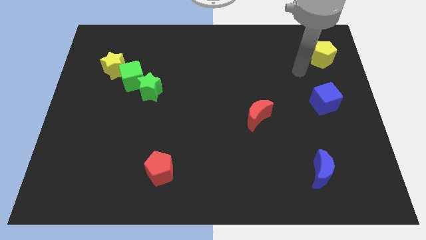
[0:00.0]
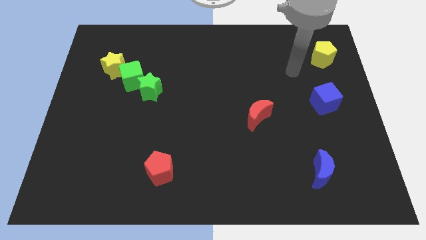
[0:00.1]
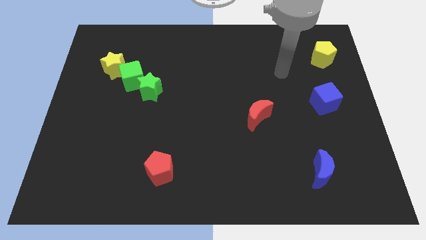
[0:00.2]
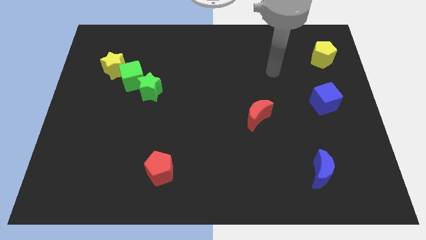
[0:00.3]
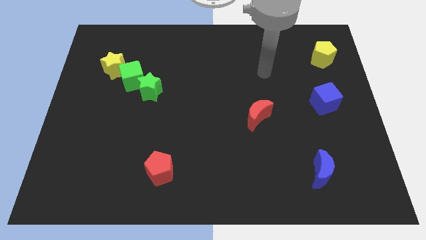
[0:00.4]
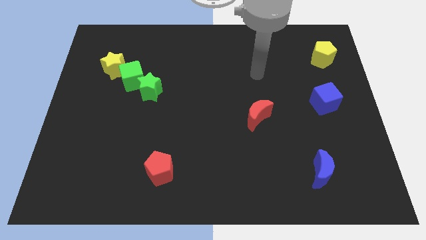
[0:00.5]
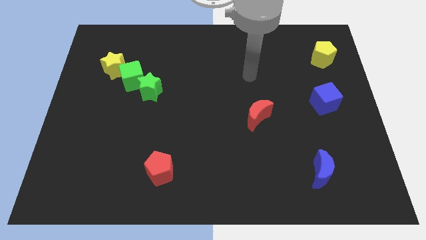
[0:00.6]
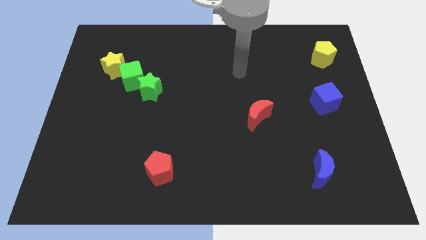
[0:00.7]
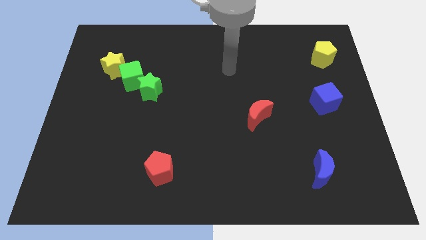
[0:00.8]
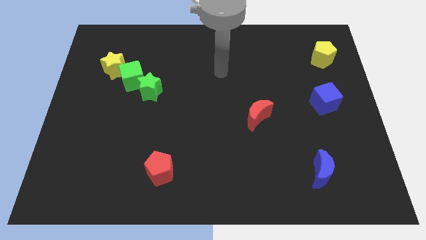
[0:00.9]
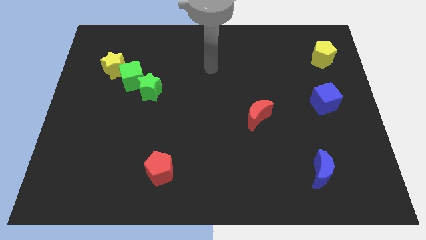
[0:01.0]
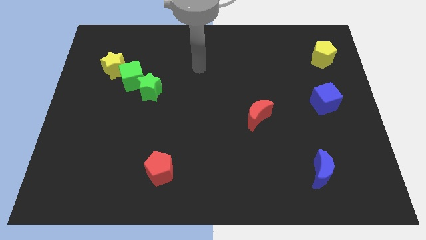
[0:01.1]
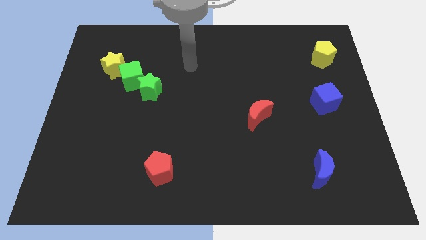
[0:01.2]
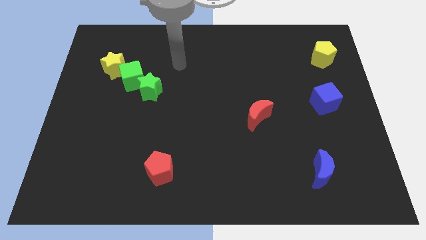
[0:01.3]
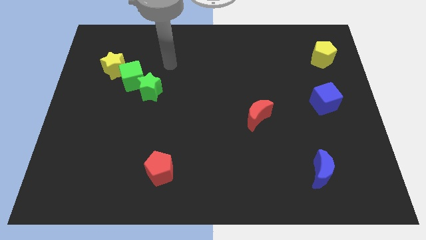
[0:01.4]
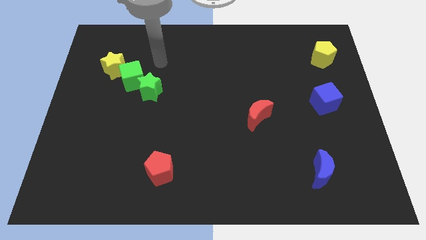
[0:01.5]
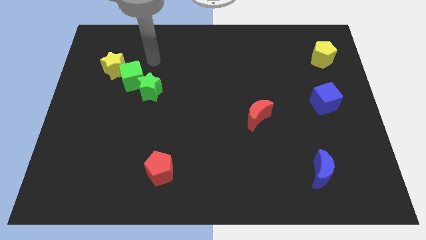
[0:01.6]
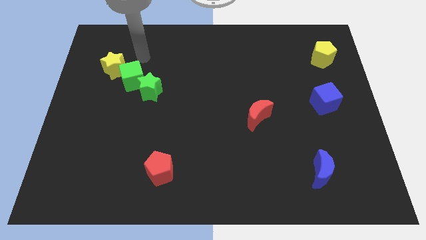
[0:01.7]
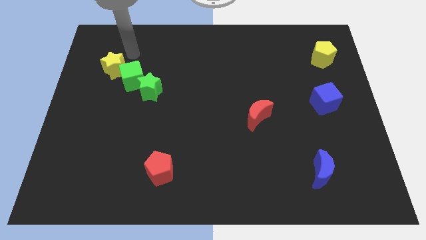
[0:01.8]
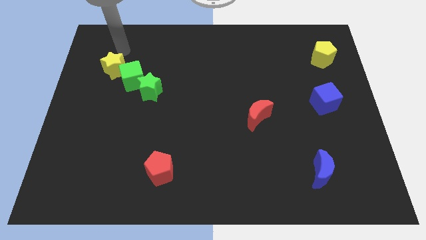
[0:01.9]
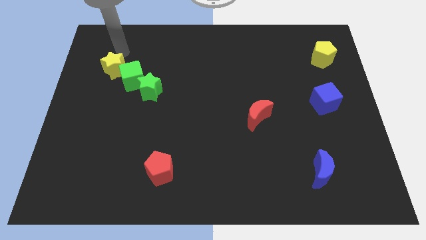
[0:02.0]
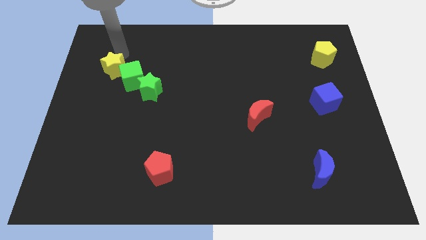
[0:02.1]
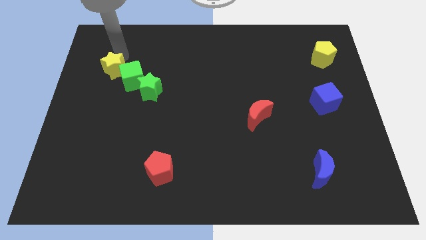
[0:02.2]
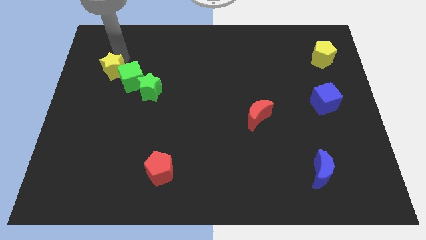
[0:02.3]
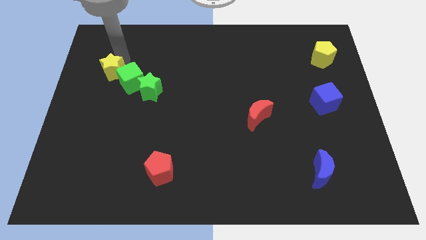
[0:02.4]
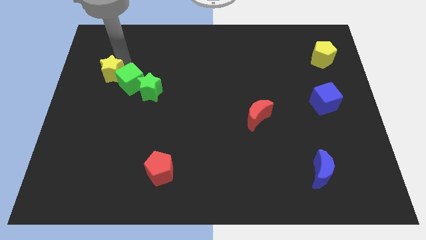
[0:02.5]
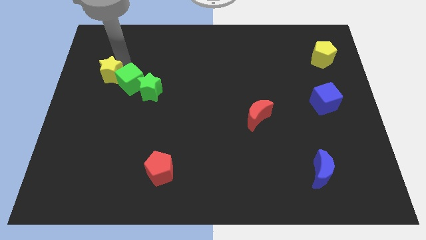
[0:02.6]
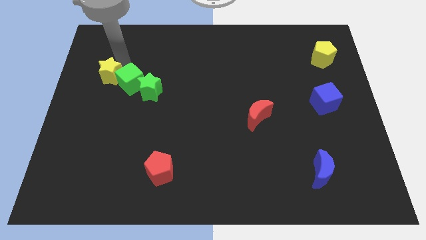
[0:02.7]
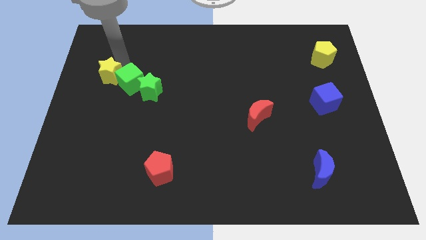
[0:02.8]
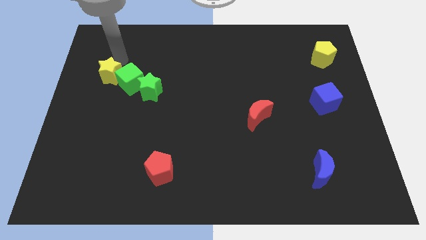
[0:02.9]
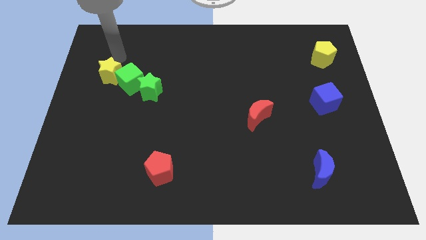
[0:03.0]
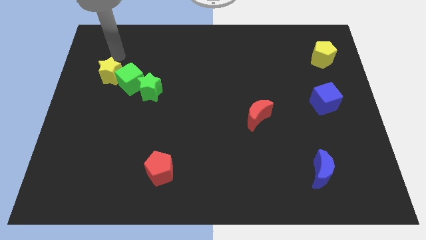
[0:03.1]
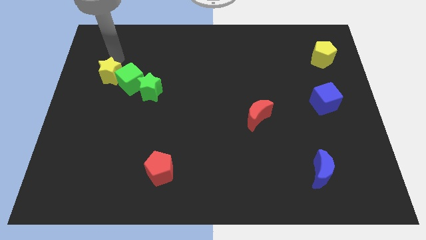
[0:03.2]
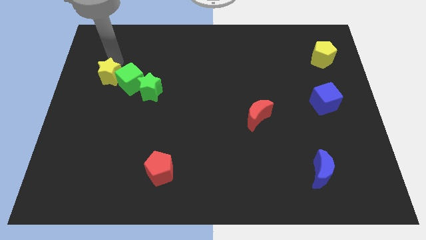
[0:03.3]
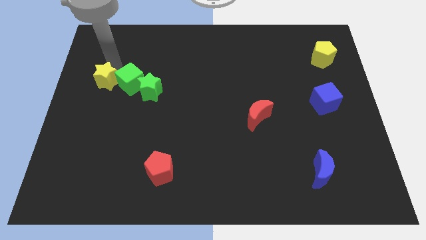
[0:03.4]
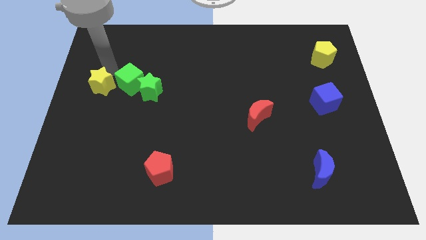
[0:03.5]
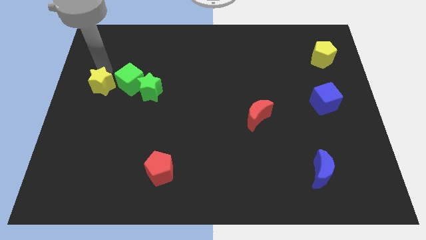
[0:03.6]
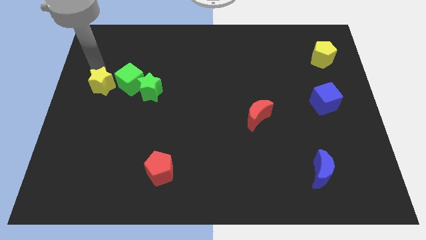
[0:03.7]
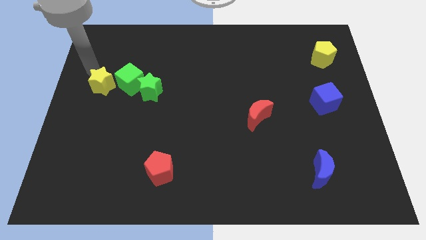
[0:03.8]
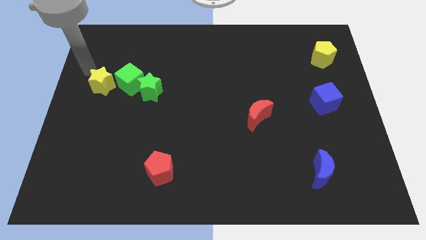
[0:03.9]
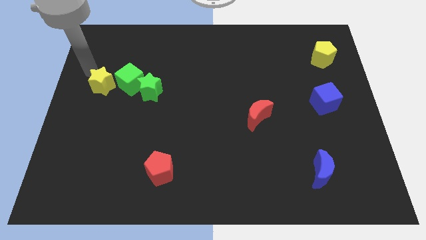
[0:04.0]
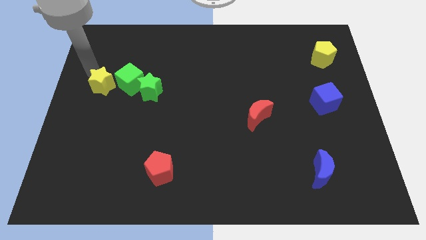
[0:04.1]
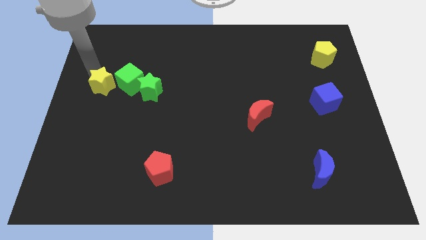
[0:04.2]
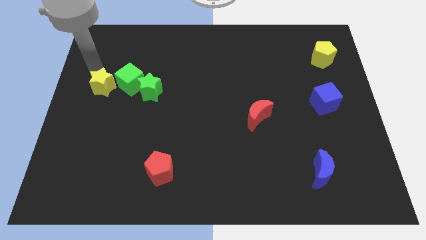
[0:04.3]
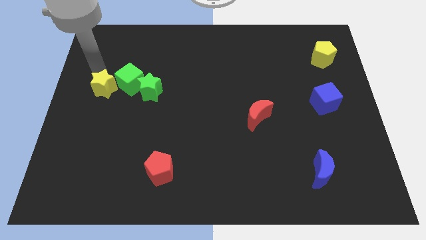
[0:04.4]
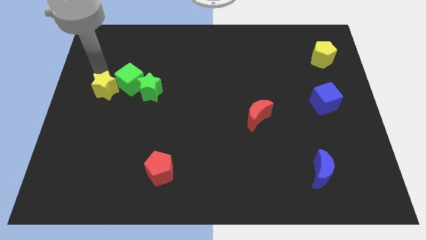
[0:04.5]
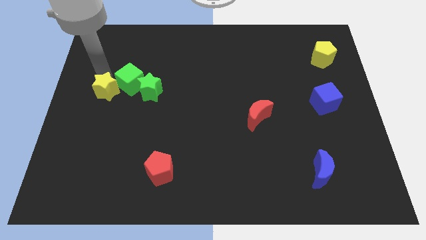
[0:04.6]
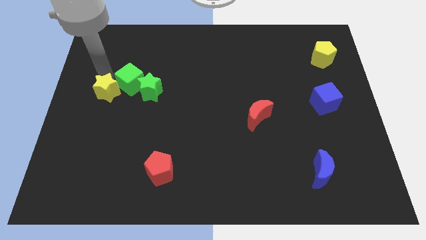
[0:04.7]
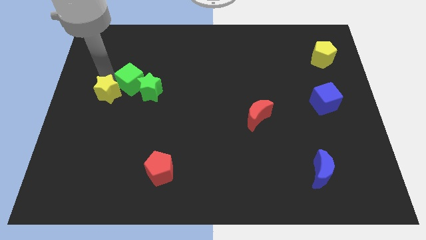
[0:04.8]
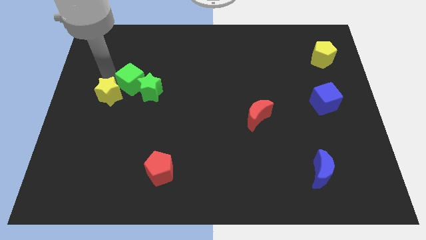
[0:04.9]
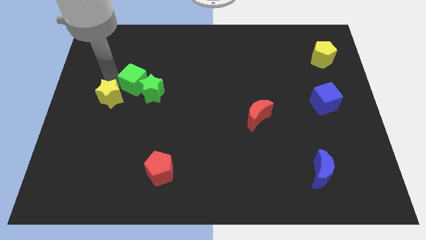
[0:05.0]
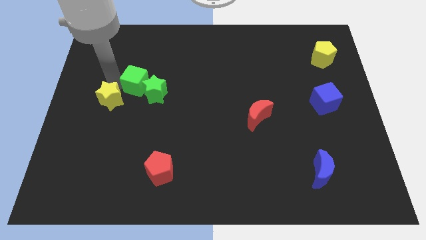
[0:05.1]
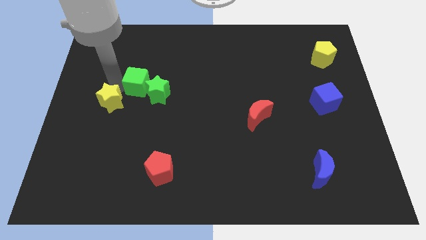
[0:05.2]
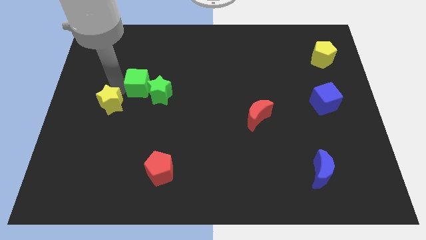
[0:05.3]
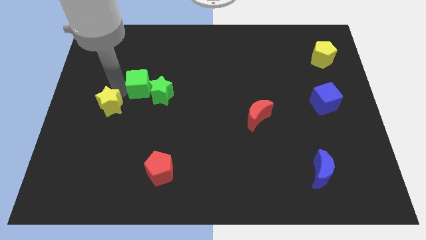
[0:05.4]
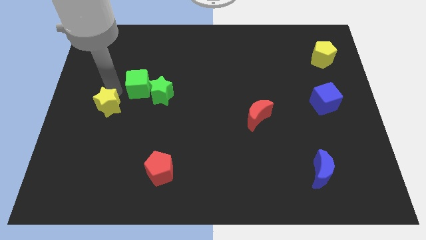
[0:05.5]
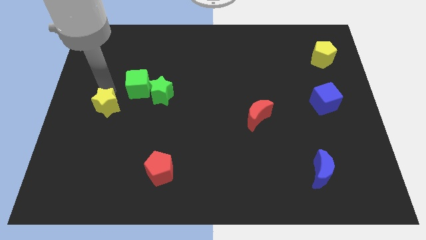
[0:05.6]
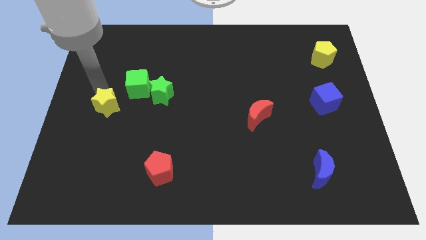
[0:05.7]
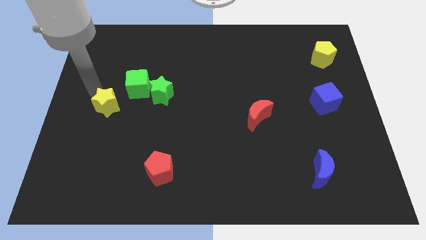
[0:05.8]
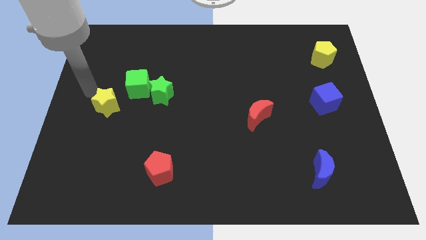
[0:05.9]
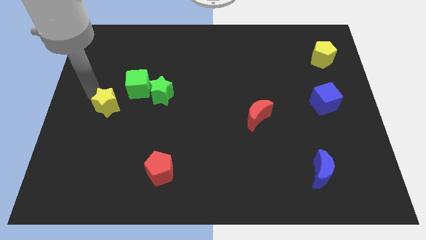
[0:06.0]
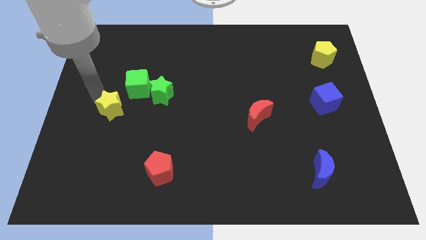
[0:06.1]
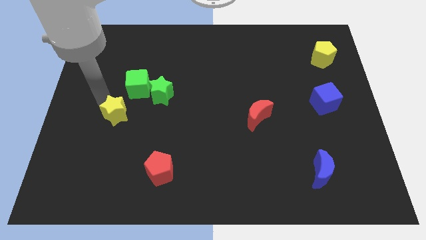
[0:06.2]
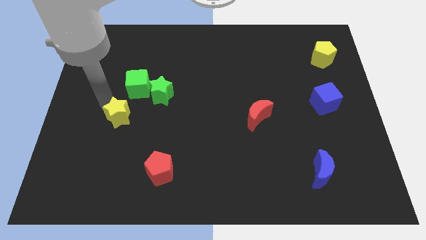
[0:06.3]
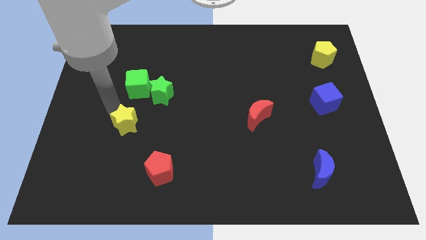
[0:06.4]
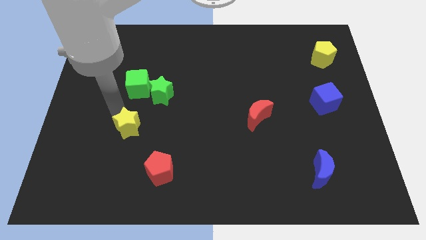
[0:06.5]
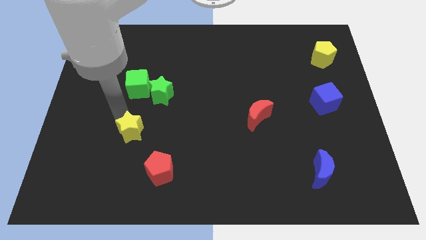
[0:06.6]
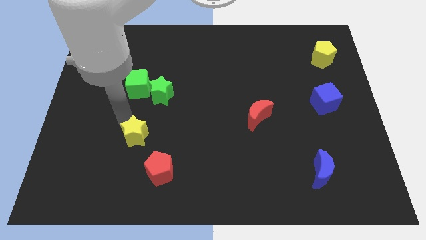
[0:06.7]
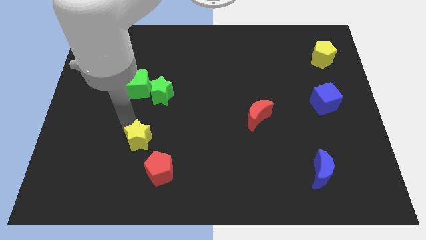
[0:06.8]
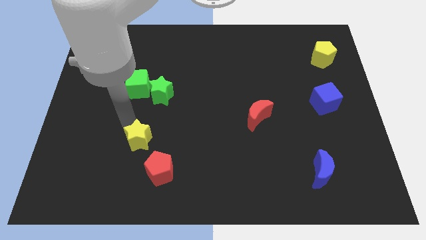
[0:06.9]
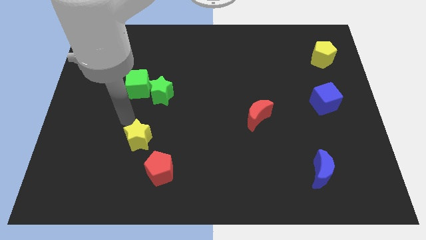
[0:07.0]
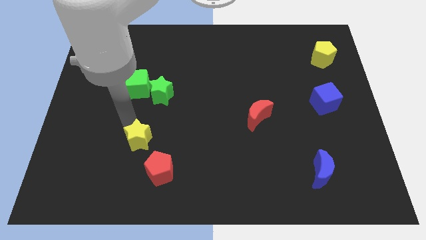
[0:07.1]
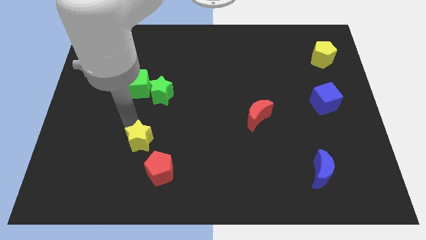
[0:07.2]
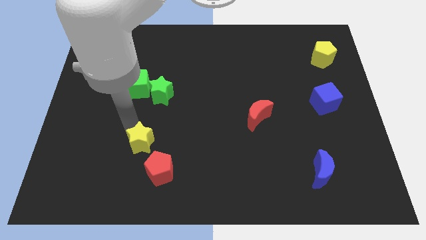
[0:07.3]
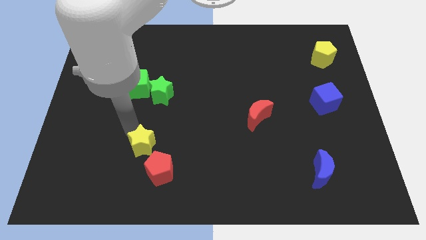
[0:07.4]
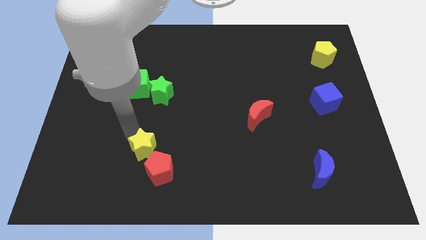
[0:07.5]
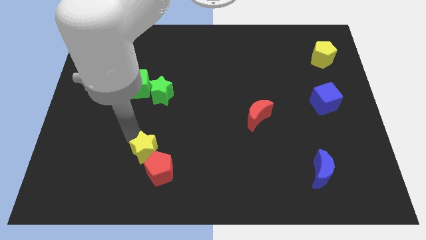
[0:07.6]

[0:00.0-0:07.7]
move the yellow star next to the red pentagon
